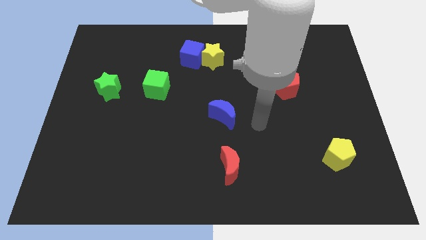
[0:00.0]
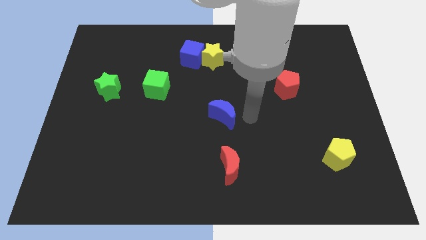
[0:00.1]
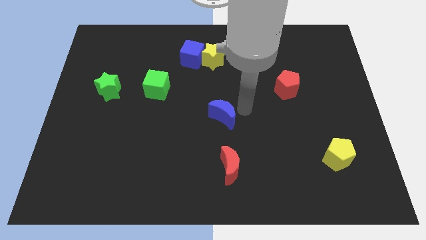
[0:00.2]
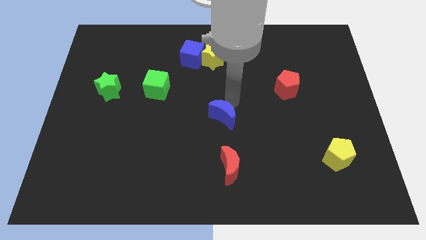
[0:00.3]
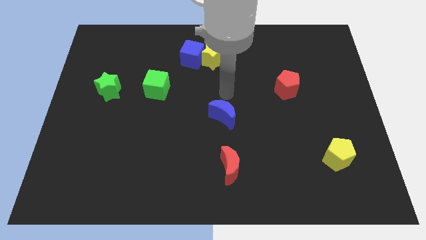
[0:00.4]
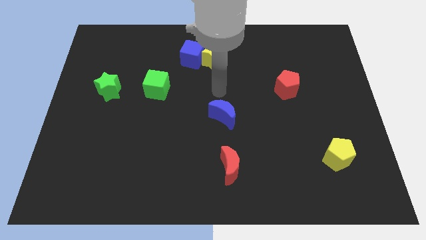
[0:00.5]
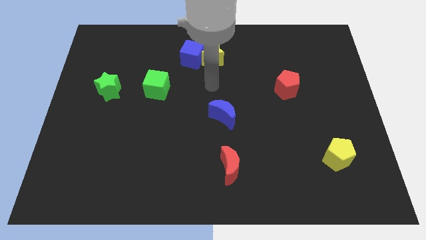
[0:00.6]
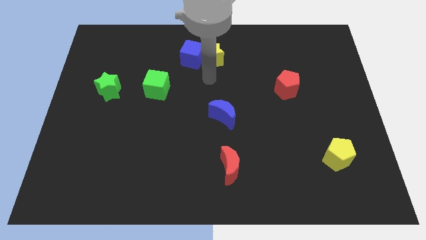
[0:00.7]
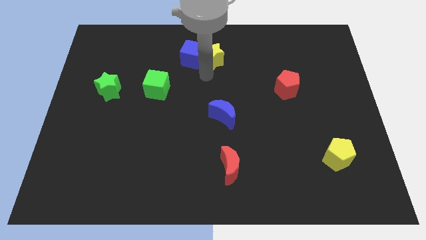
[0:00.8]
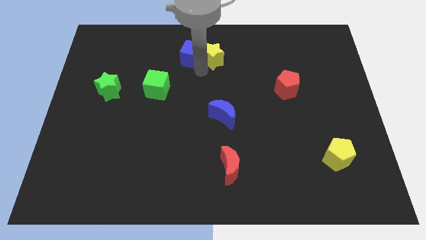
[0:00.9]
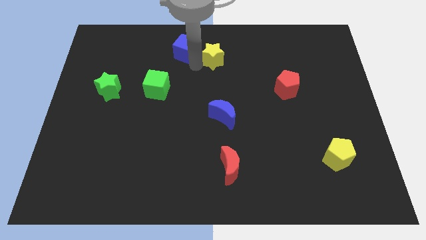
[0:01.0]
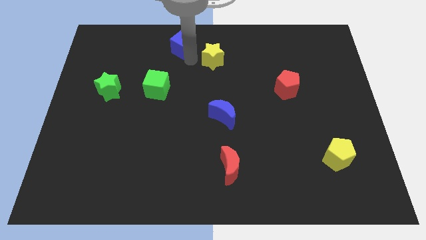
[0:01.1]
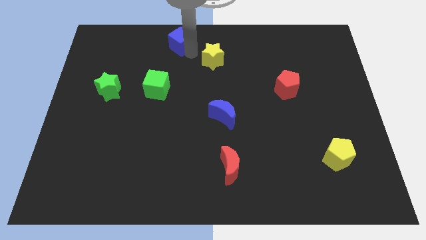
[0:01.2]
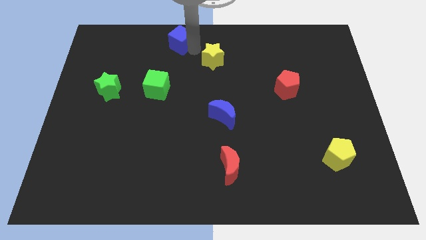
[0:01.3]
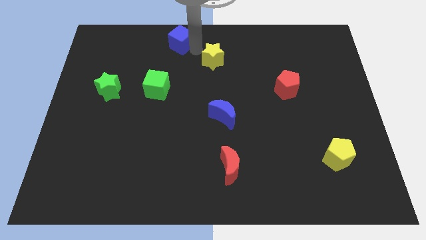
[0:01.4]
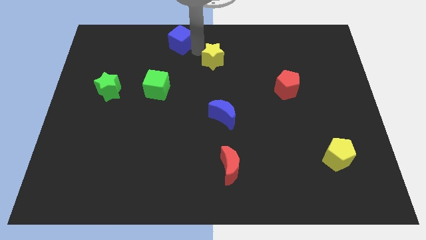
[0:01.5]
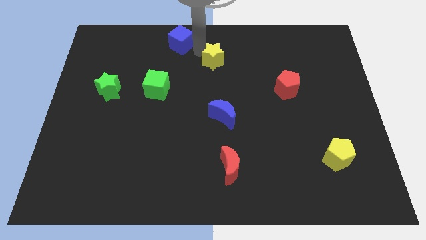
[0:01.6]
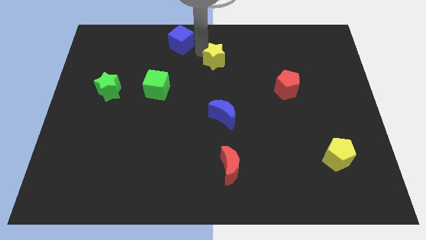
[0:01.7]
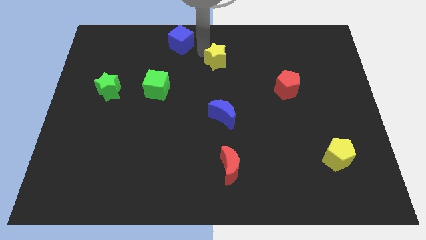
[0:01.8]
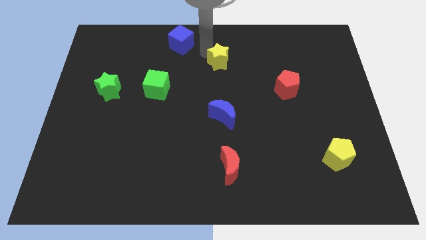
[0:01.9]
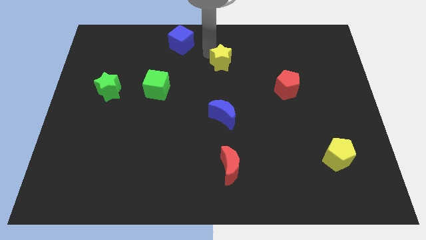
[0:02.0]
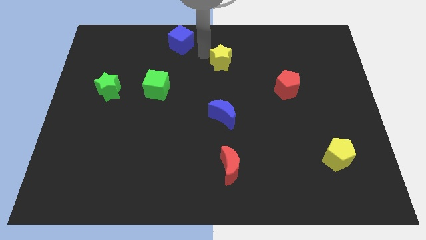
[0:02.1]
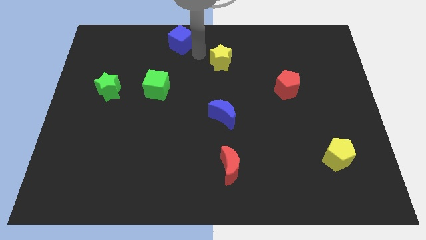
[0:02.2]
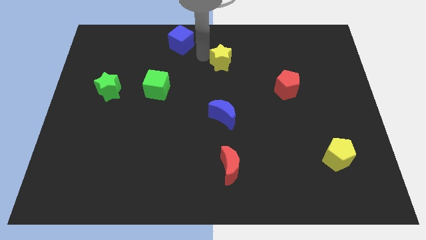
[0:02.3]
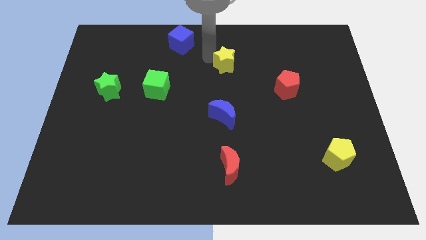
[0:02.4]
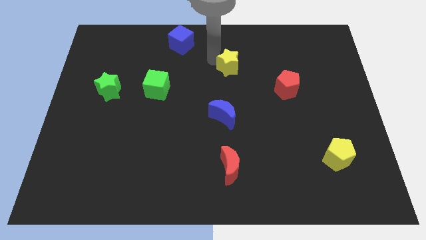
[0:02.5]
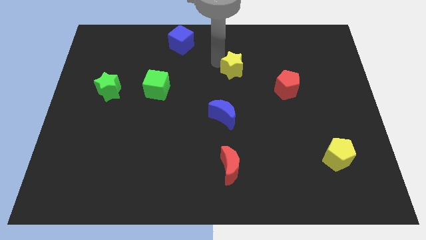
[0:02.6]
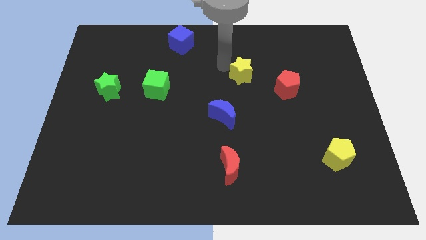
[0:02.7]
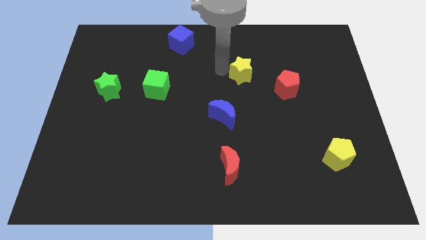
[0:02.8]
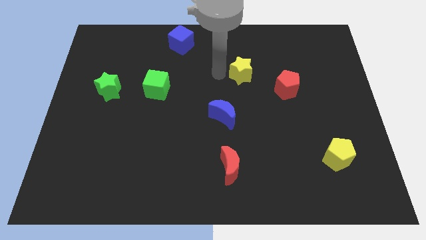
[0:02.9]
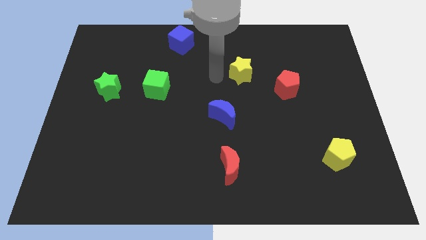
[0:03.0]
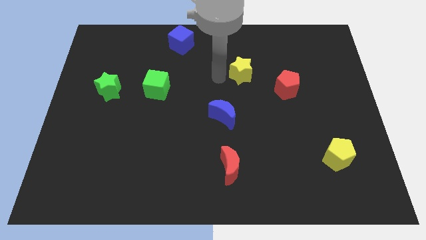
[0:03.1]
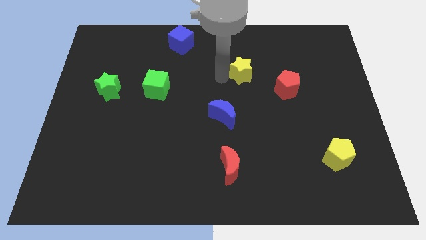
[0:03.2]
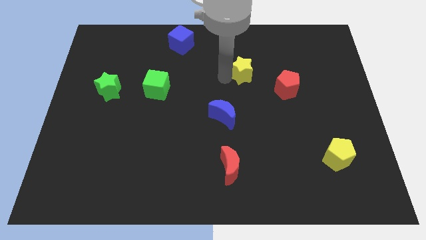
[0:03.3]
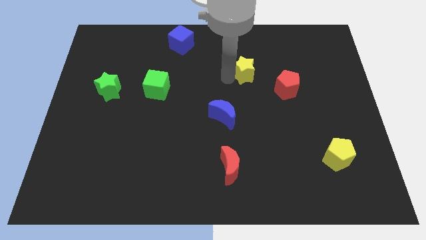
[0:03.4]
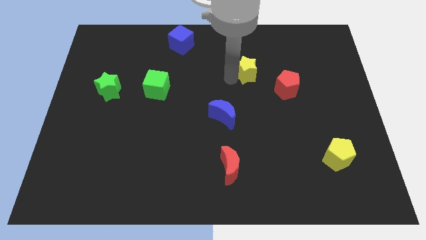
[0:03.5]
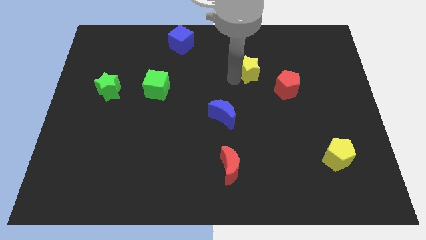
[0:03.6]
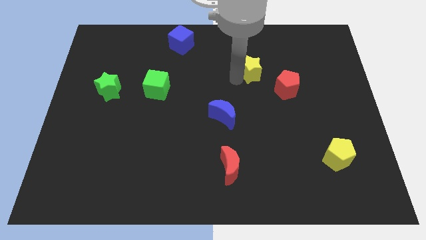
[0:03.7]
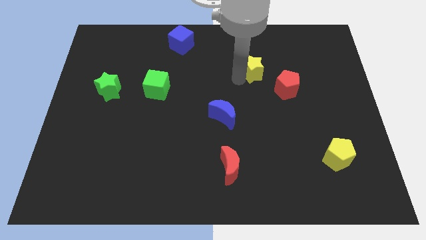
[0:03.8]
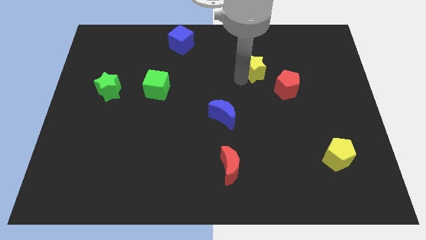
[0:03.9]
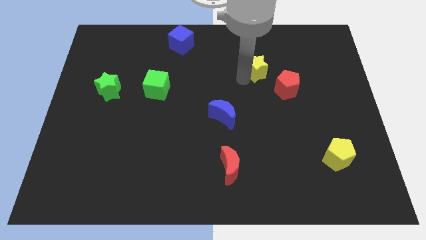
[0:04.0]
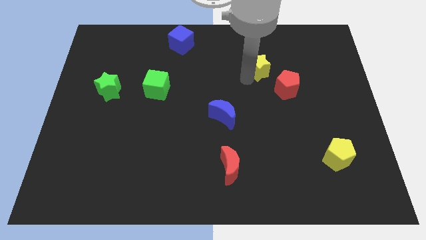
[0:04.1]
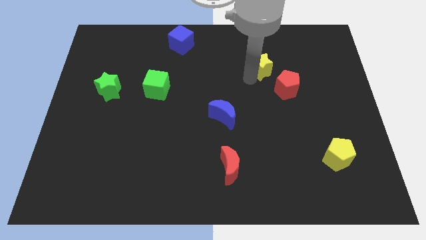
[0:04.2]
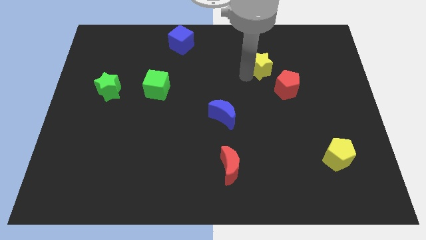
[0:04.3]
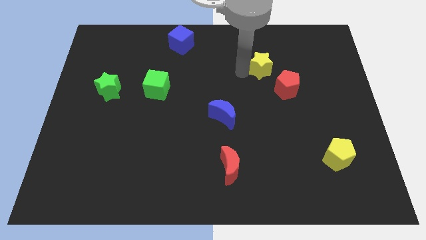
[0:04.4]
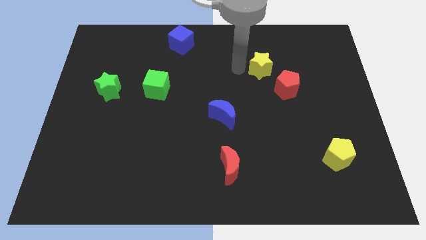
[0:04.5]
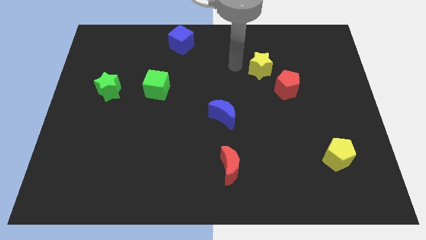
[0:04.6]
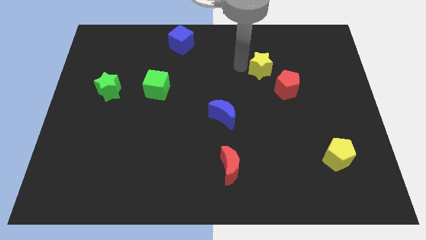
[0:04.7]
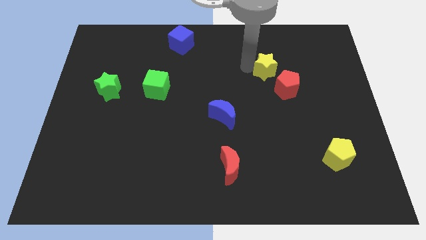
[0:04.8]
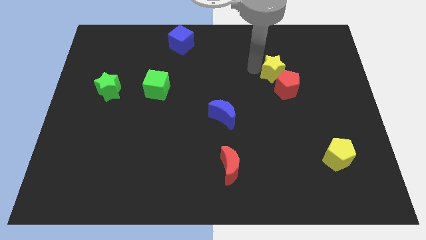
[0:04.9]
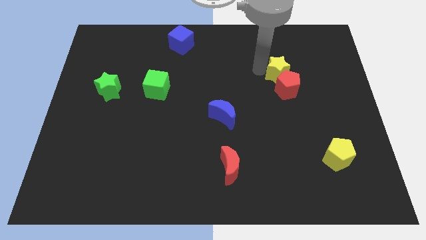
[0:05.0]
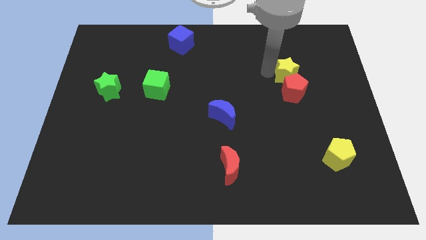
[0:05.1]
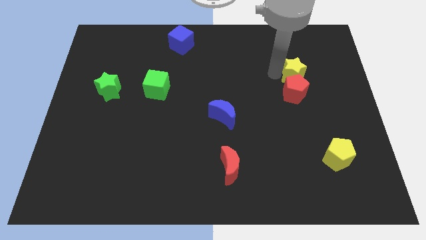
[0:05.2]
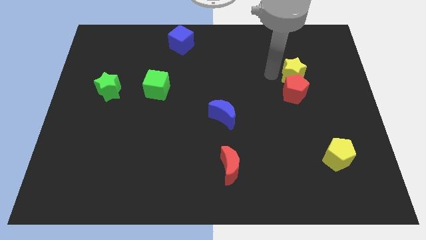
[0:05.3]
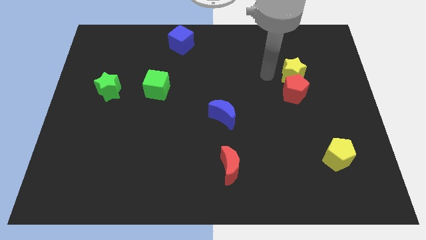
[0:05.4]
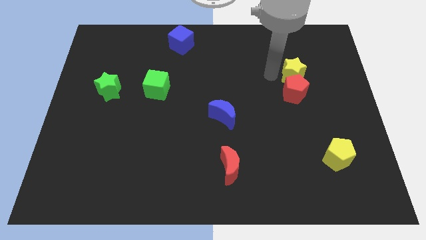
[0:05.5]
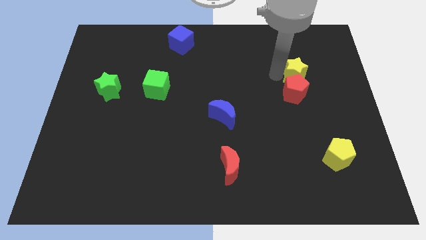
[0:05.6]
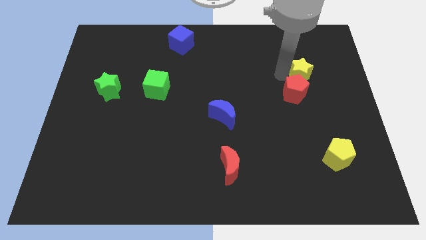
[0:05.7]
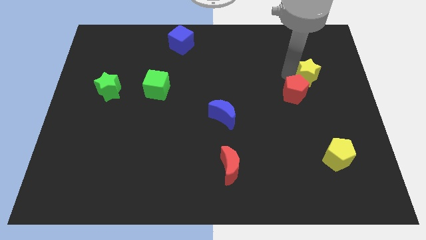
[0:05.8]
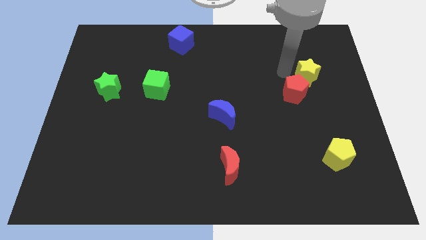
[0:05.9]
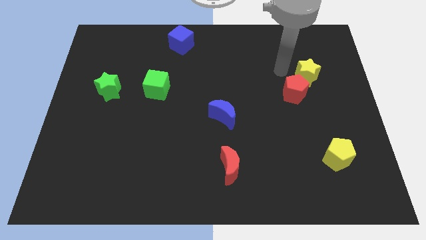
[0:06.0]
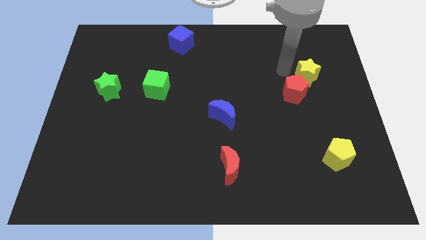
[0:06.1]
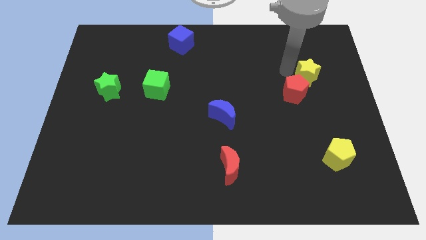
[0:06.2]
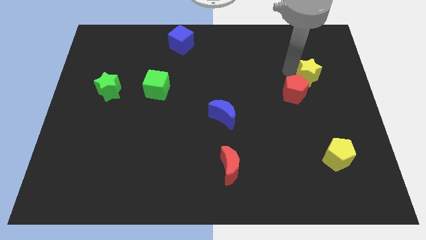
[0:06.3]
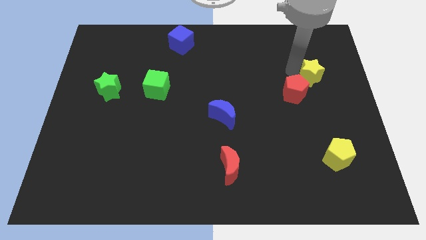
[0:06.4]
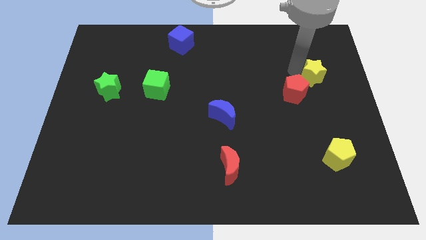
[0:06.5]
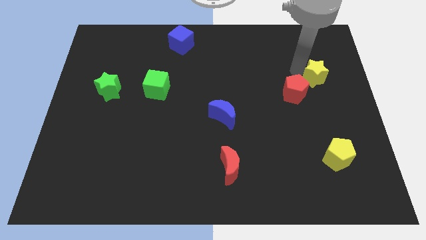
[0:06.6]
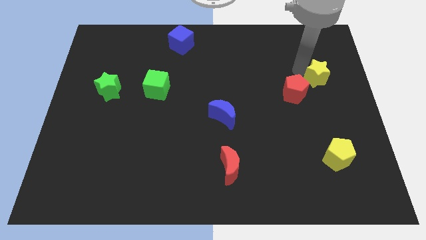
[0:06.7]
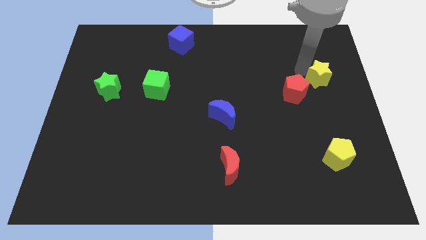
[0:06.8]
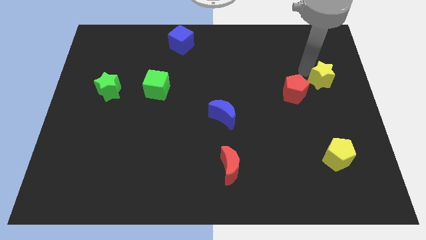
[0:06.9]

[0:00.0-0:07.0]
move the yellow star to the center right
